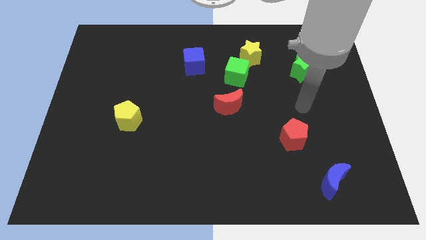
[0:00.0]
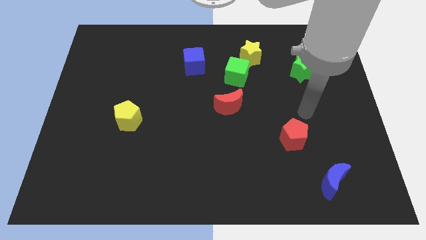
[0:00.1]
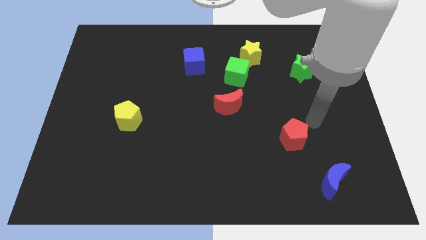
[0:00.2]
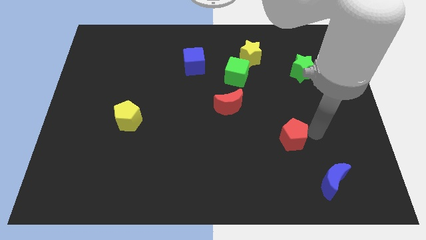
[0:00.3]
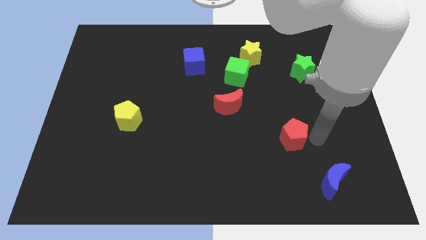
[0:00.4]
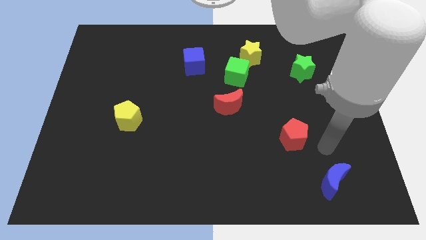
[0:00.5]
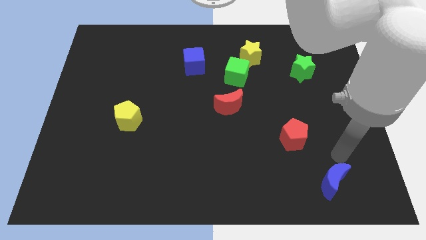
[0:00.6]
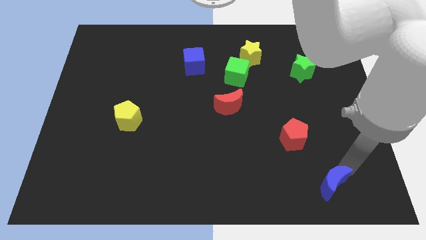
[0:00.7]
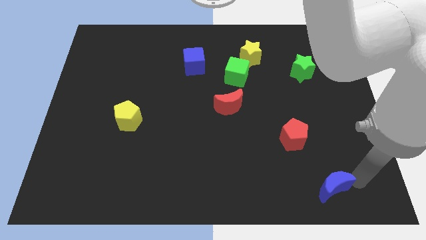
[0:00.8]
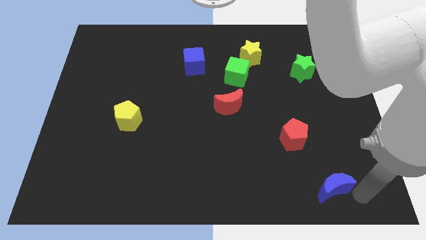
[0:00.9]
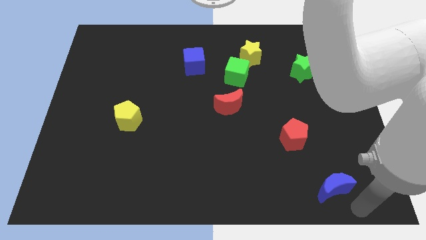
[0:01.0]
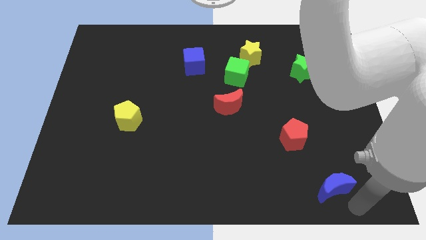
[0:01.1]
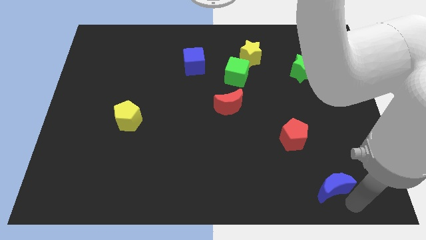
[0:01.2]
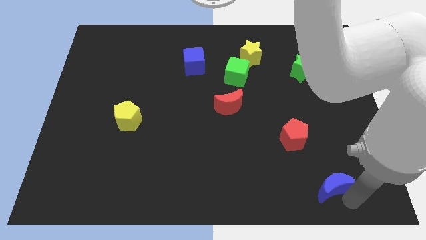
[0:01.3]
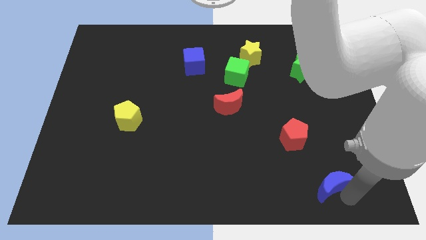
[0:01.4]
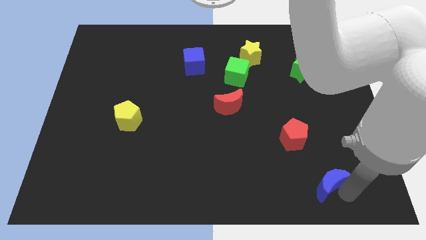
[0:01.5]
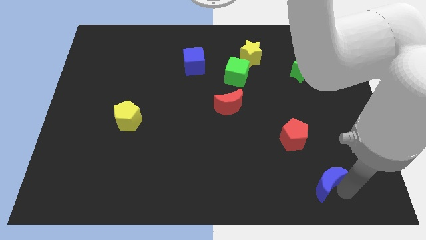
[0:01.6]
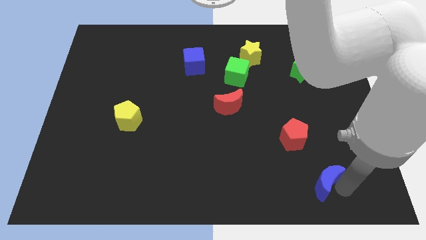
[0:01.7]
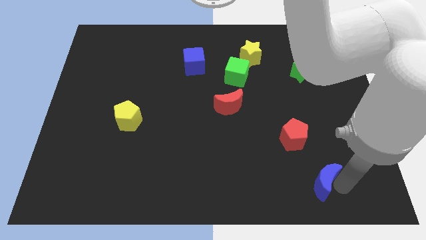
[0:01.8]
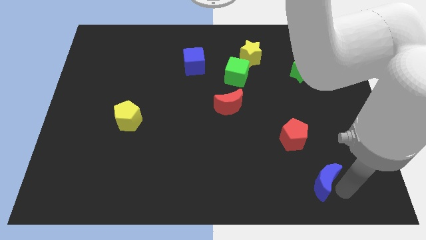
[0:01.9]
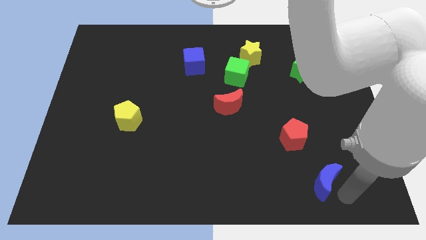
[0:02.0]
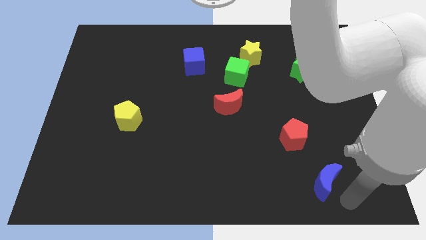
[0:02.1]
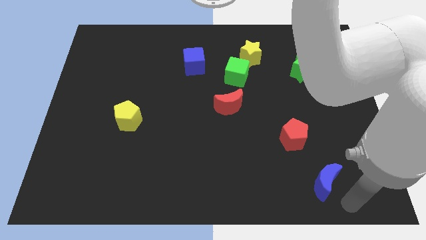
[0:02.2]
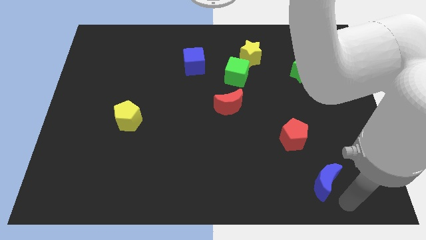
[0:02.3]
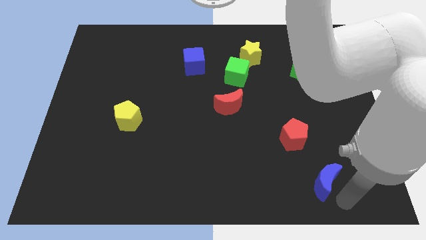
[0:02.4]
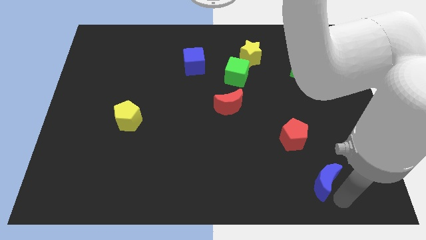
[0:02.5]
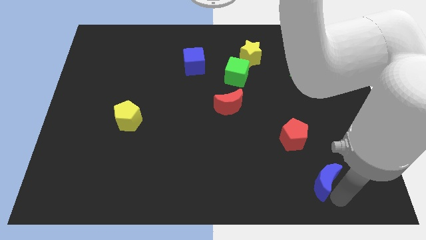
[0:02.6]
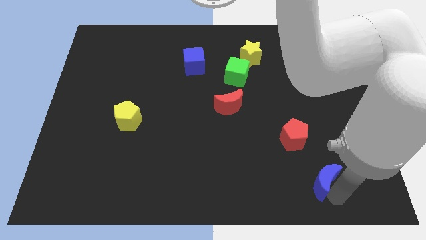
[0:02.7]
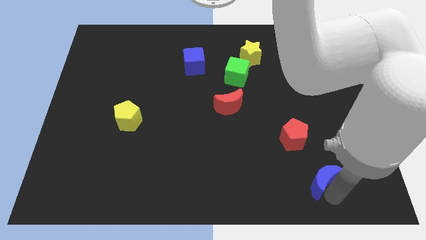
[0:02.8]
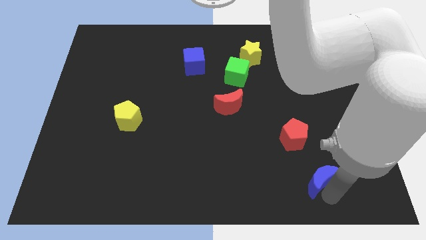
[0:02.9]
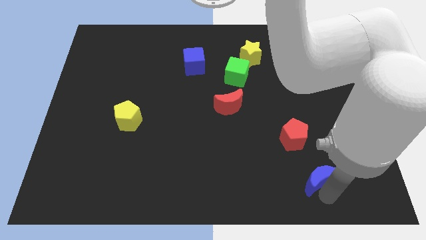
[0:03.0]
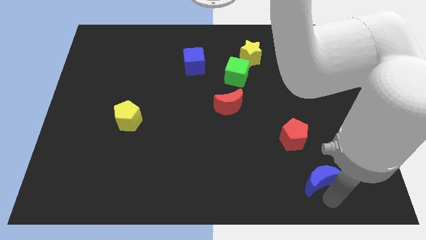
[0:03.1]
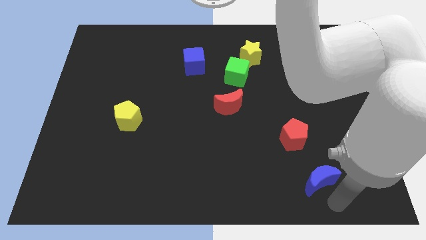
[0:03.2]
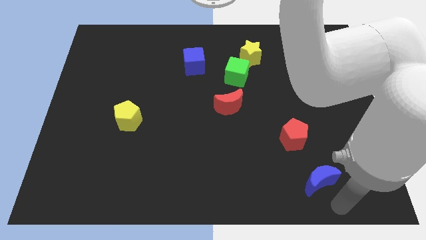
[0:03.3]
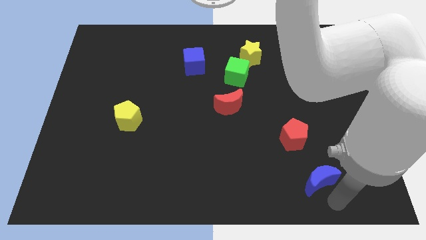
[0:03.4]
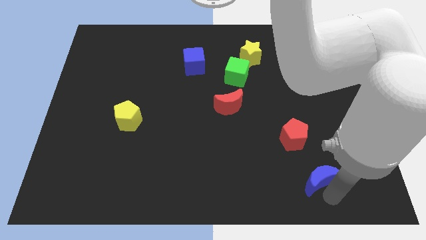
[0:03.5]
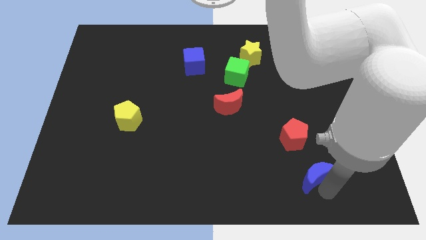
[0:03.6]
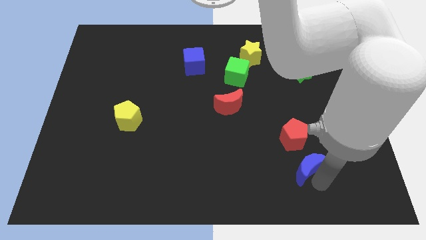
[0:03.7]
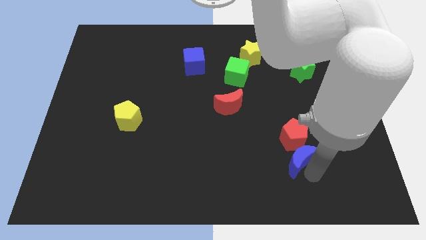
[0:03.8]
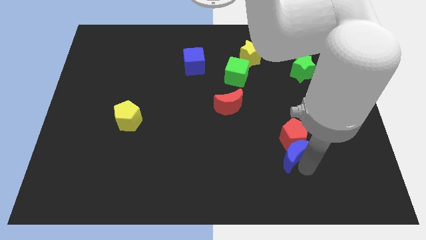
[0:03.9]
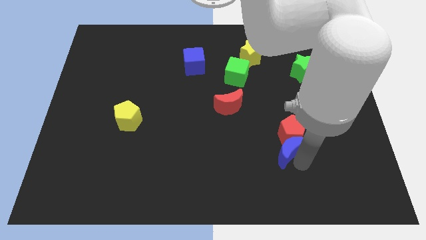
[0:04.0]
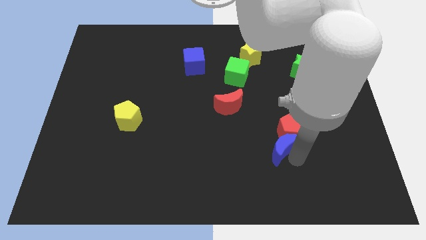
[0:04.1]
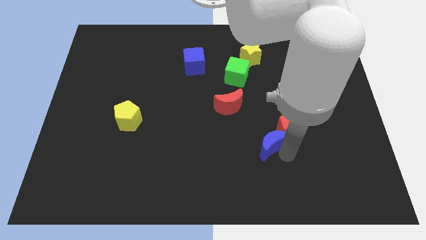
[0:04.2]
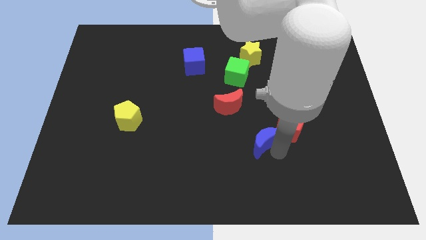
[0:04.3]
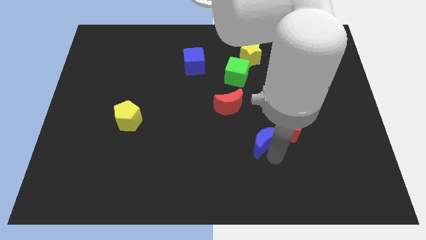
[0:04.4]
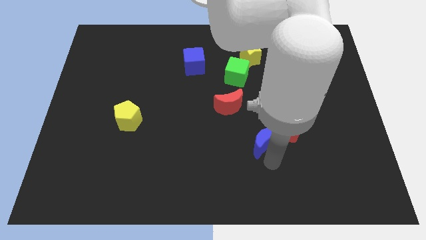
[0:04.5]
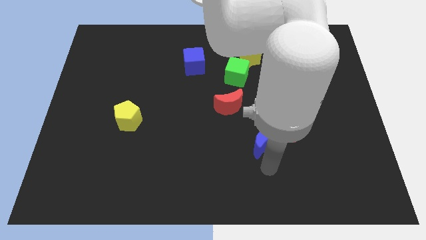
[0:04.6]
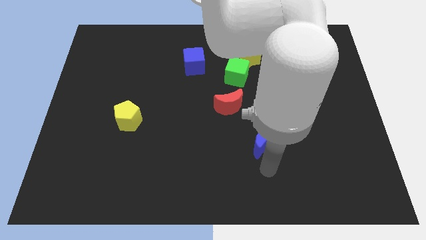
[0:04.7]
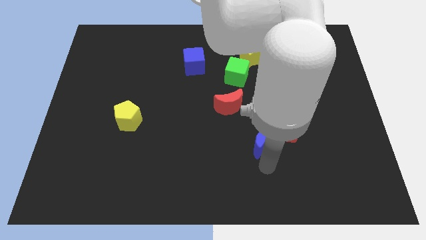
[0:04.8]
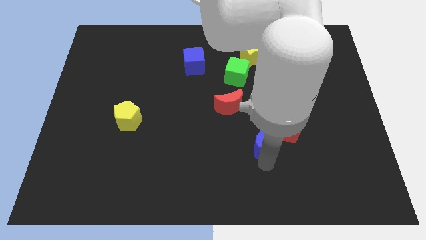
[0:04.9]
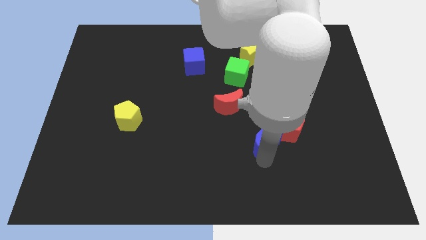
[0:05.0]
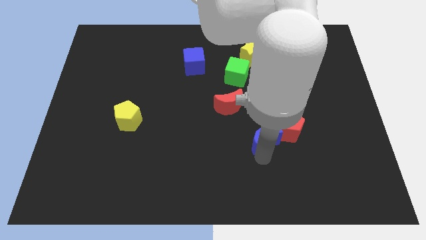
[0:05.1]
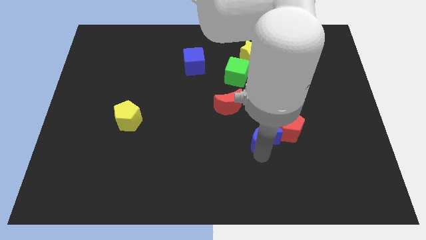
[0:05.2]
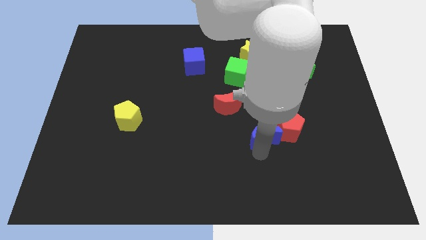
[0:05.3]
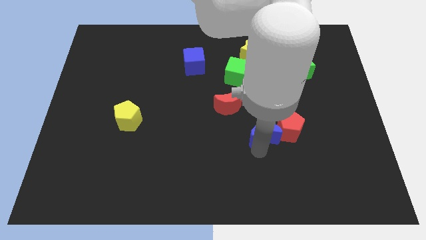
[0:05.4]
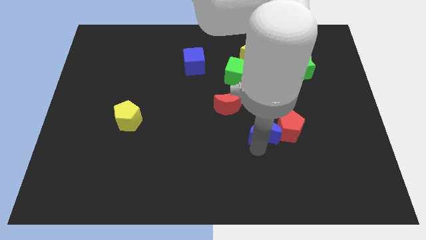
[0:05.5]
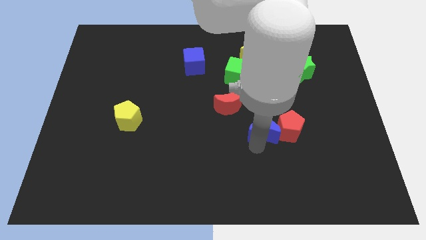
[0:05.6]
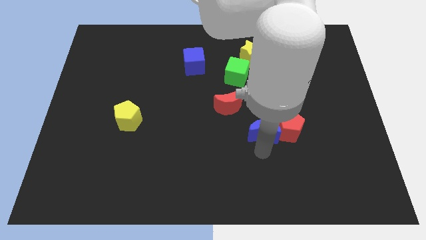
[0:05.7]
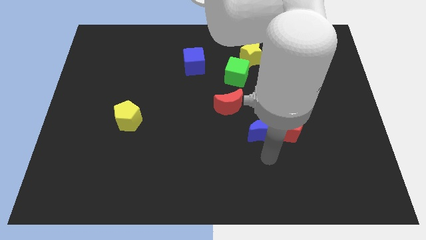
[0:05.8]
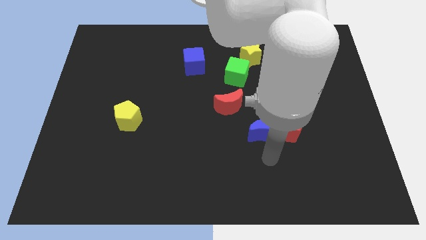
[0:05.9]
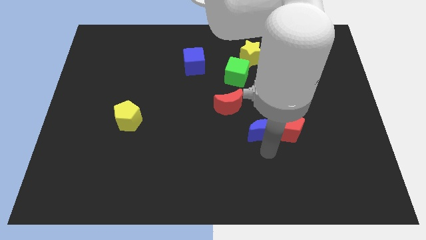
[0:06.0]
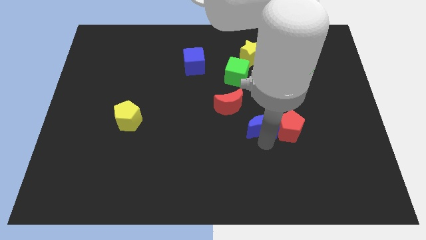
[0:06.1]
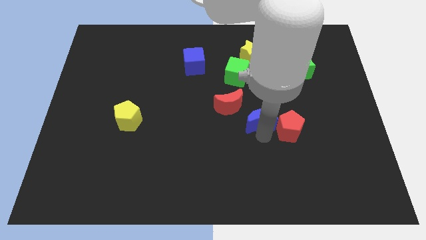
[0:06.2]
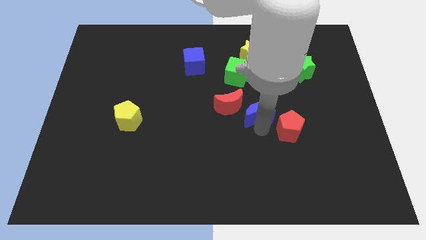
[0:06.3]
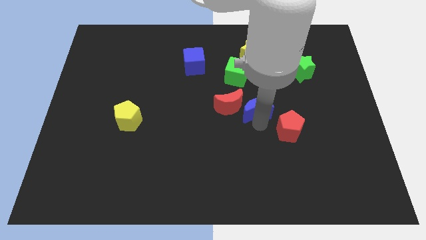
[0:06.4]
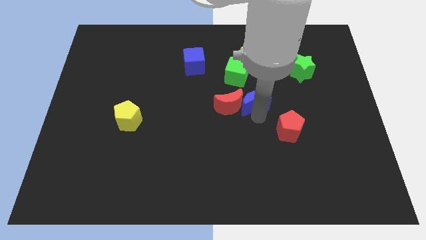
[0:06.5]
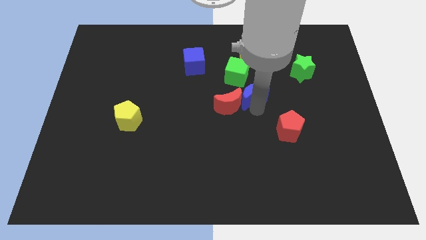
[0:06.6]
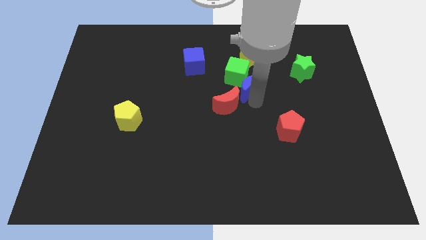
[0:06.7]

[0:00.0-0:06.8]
slide the blue moon next to the green cube

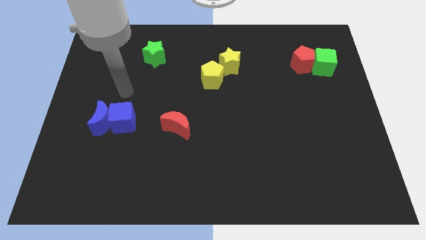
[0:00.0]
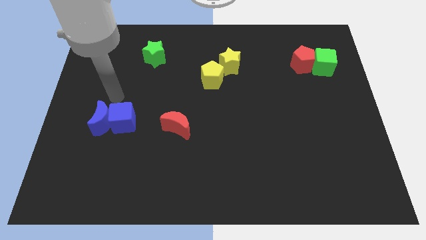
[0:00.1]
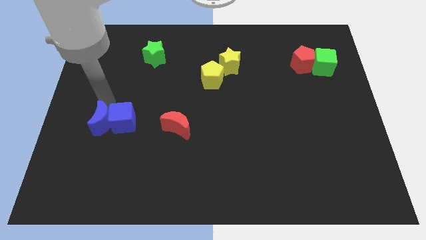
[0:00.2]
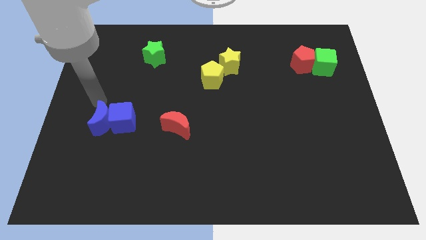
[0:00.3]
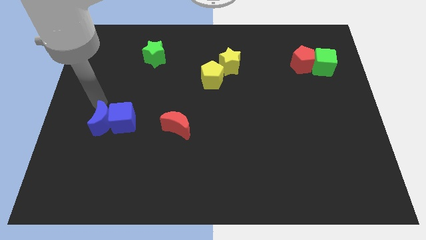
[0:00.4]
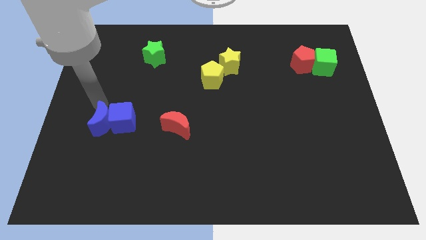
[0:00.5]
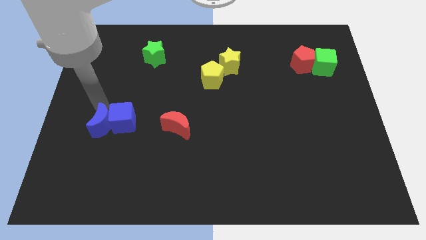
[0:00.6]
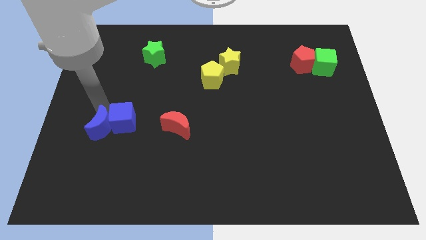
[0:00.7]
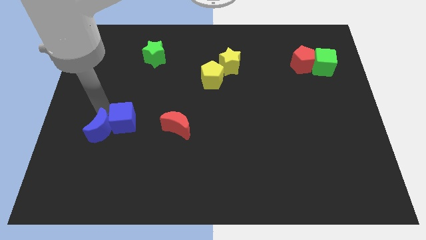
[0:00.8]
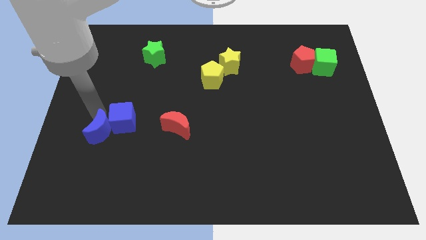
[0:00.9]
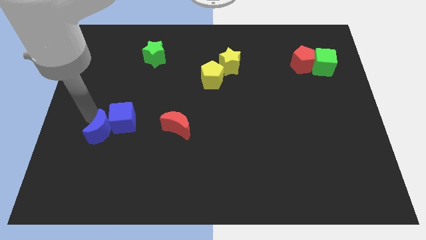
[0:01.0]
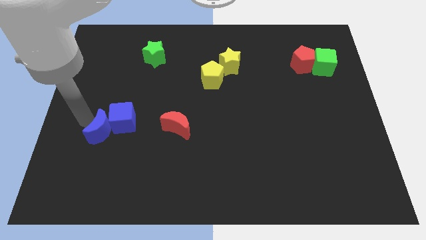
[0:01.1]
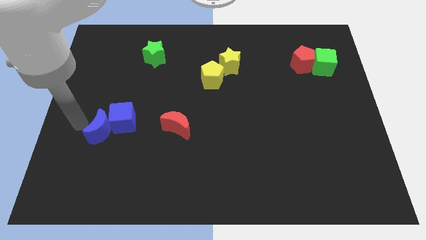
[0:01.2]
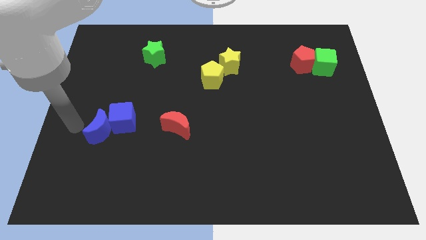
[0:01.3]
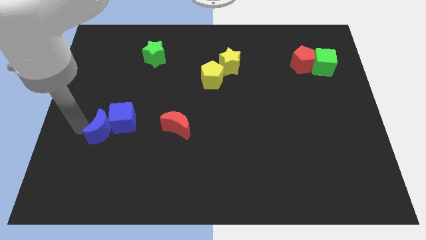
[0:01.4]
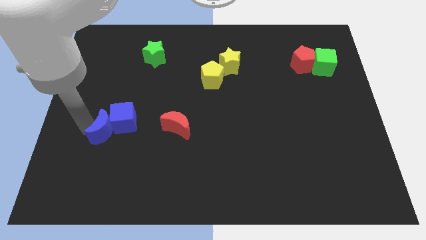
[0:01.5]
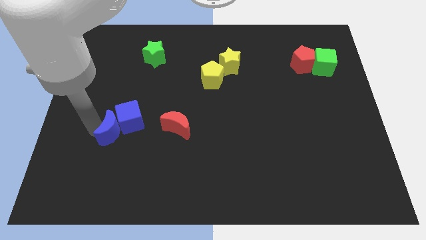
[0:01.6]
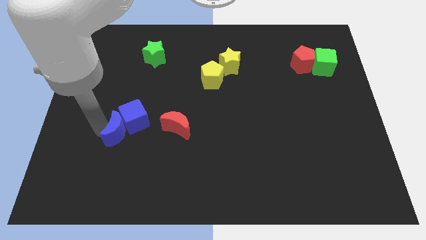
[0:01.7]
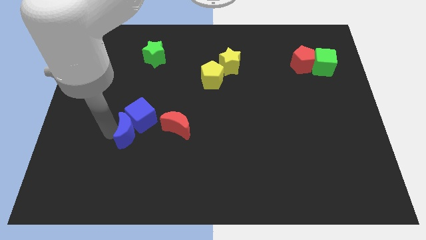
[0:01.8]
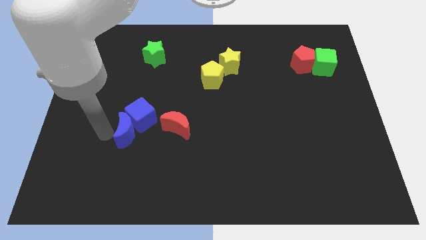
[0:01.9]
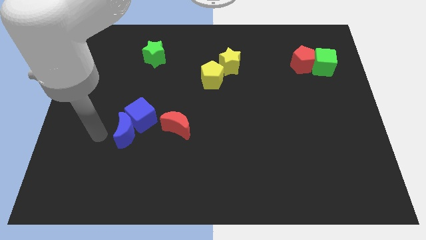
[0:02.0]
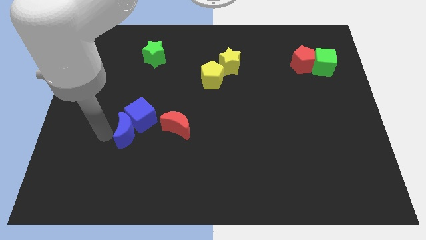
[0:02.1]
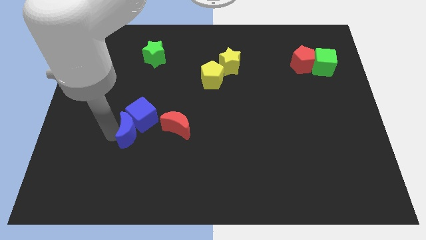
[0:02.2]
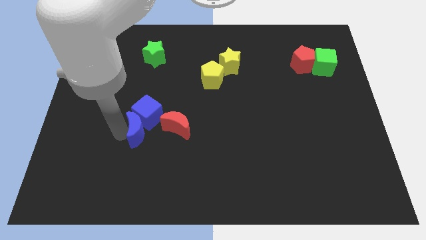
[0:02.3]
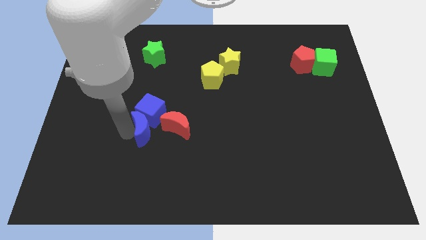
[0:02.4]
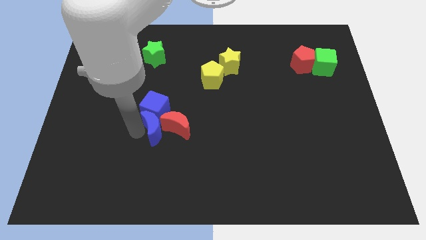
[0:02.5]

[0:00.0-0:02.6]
move the blue moon close to the red moon
